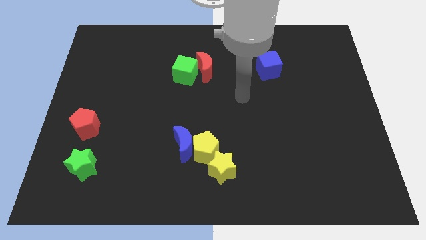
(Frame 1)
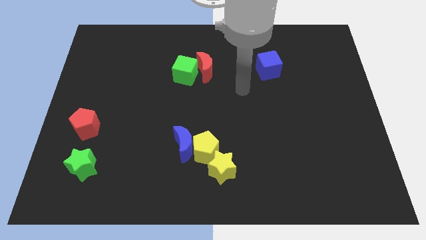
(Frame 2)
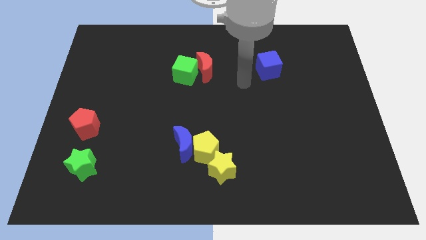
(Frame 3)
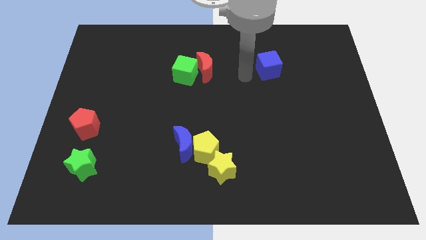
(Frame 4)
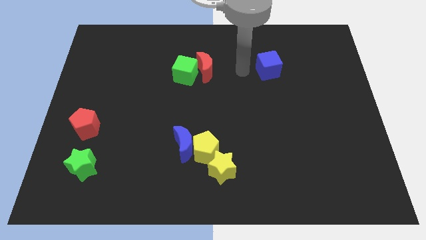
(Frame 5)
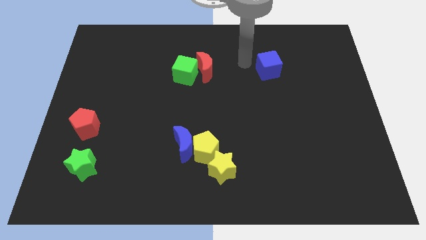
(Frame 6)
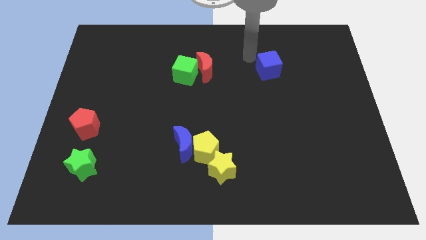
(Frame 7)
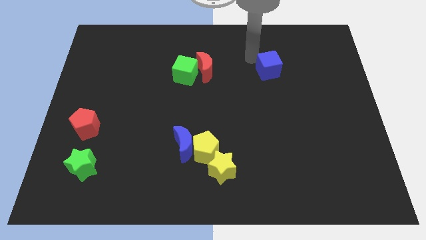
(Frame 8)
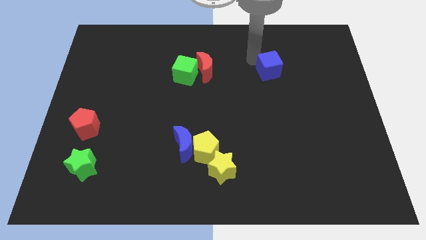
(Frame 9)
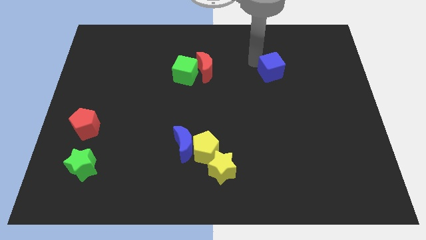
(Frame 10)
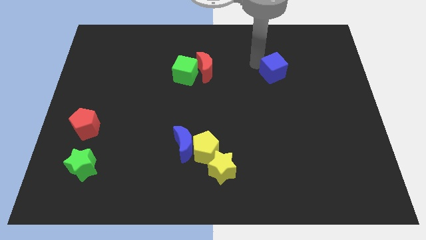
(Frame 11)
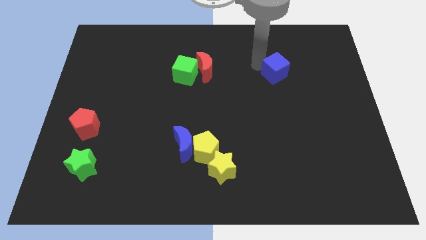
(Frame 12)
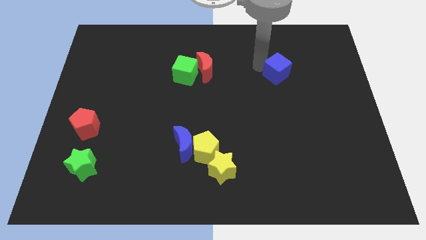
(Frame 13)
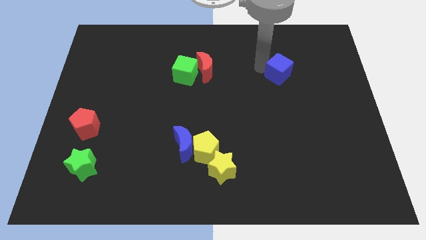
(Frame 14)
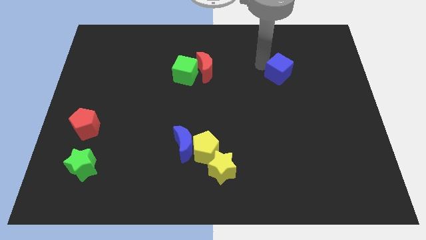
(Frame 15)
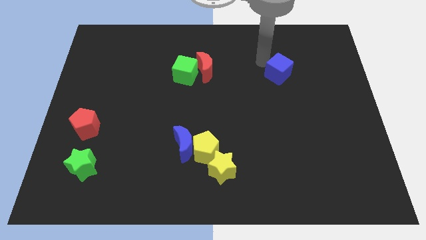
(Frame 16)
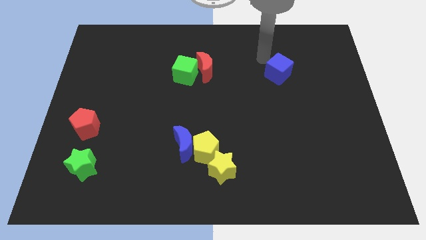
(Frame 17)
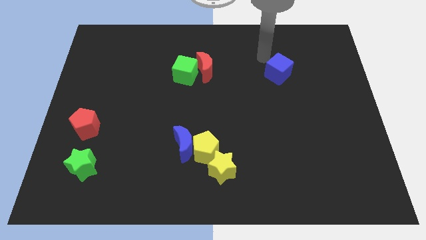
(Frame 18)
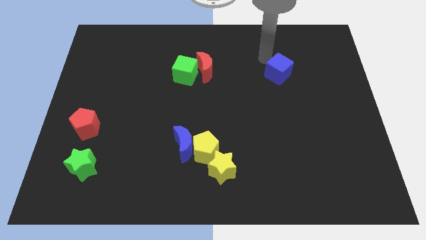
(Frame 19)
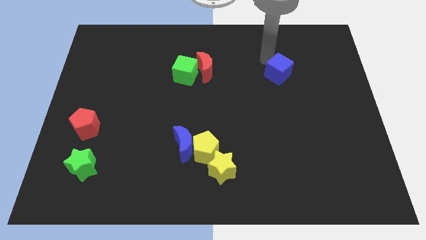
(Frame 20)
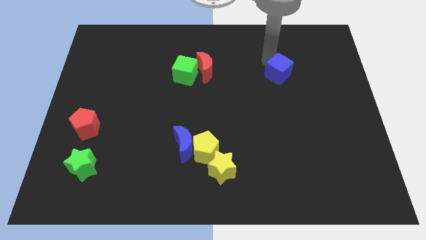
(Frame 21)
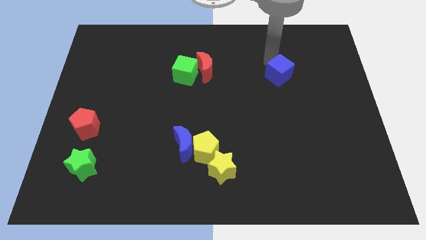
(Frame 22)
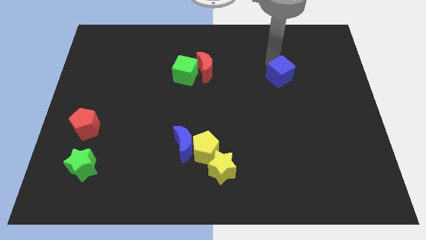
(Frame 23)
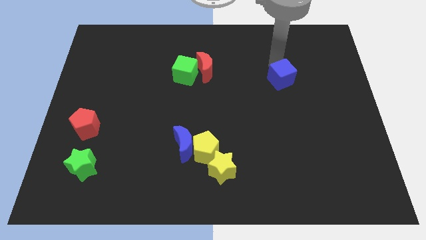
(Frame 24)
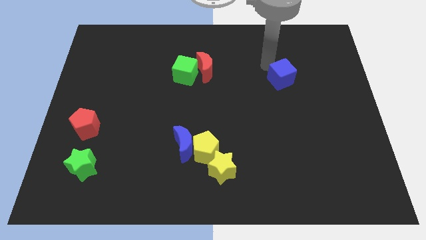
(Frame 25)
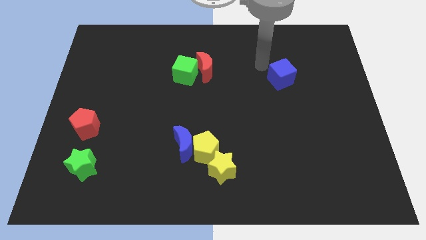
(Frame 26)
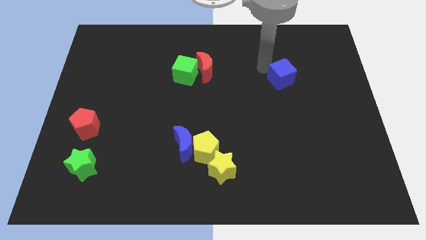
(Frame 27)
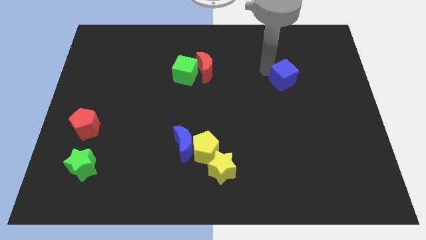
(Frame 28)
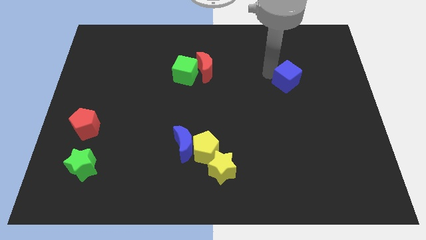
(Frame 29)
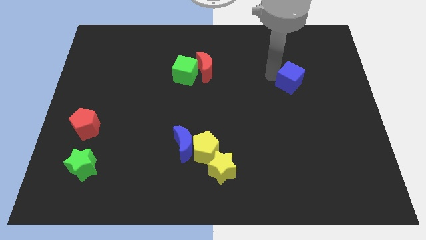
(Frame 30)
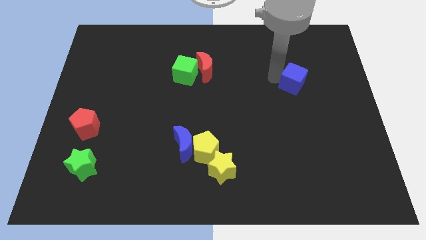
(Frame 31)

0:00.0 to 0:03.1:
move the blue cube a bit downwards and then right

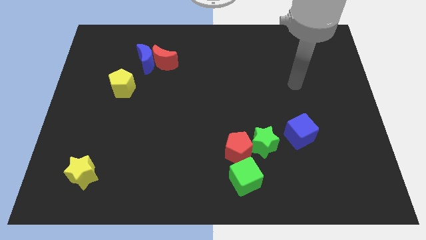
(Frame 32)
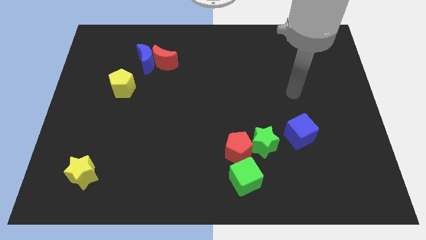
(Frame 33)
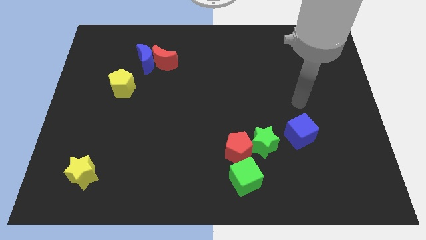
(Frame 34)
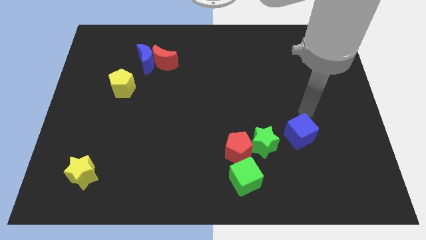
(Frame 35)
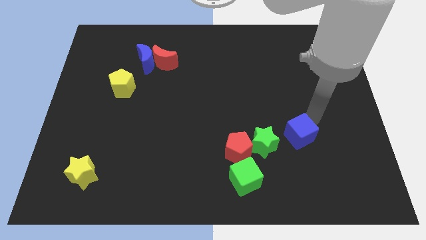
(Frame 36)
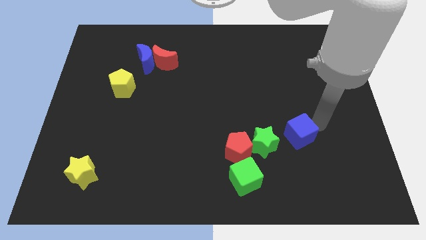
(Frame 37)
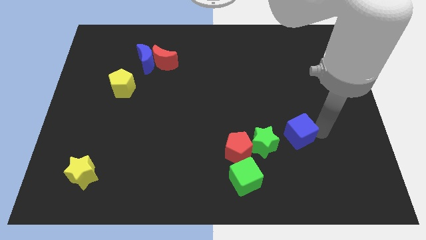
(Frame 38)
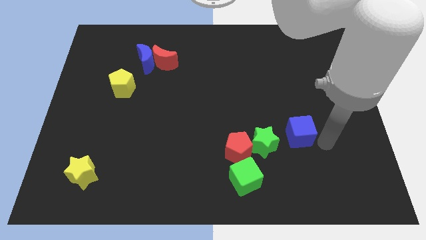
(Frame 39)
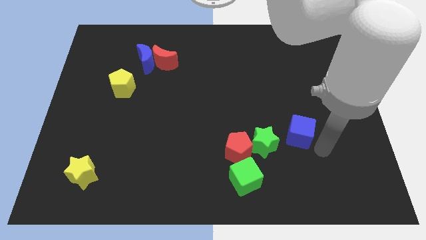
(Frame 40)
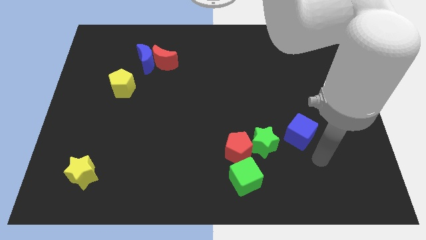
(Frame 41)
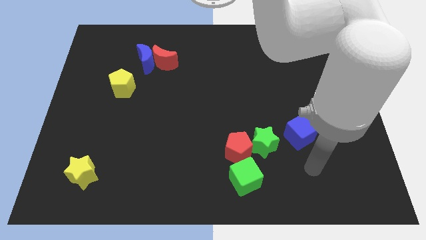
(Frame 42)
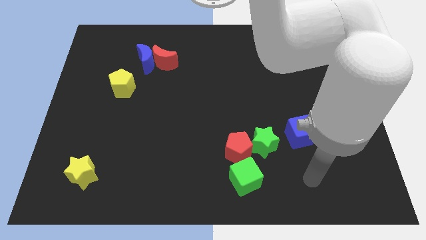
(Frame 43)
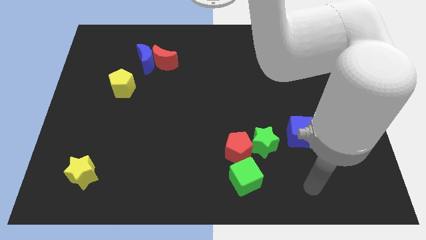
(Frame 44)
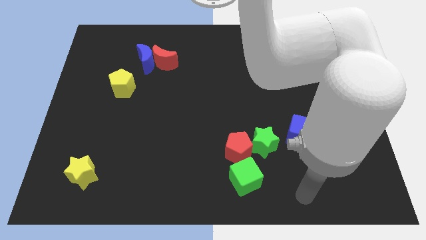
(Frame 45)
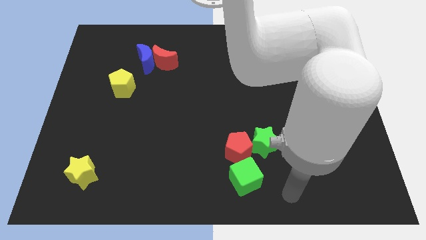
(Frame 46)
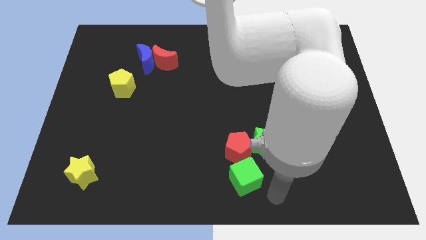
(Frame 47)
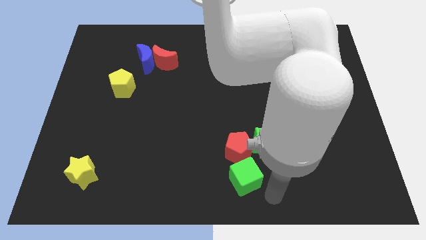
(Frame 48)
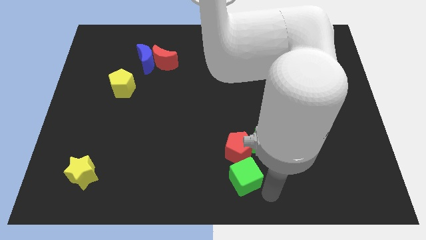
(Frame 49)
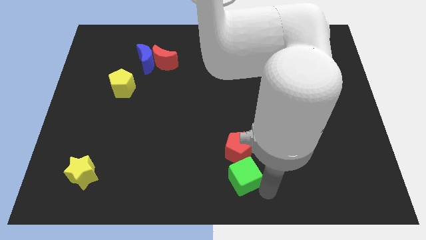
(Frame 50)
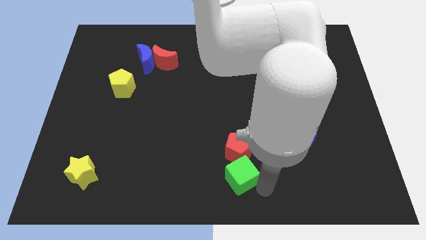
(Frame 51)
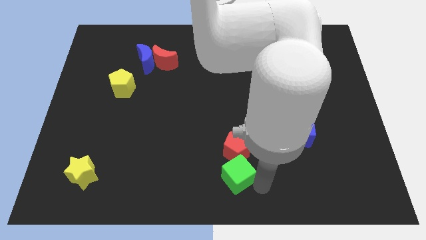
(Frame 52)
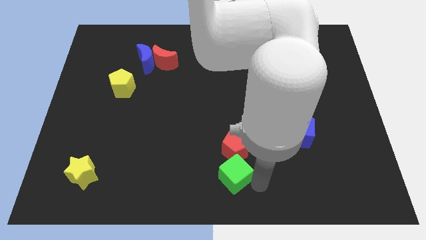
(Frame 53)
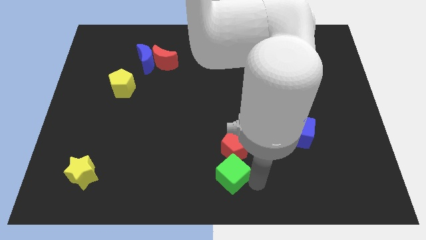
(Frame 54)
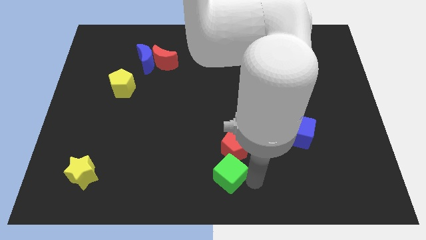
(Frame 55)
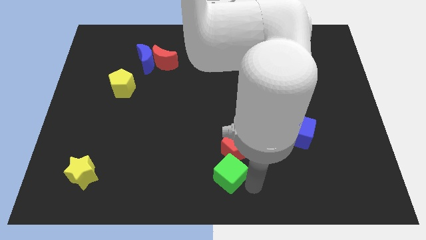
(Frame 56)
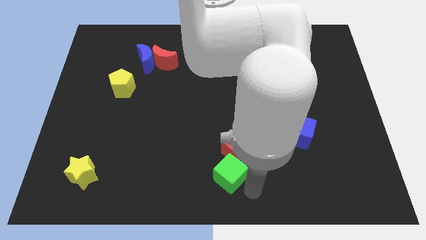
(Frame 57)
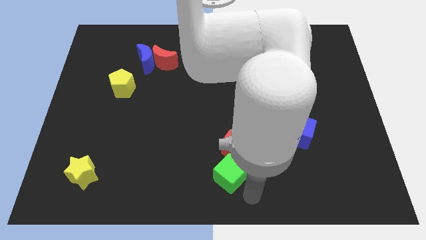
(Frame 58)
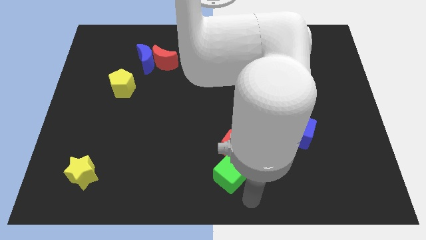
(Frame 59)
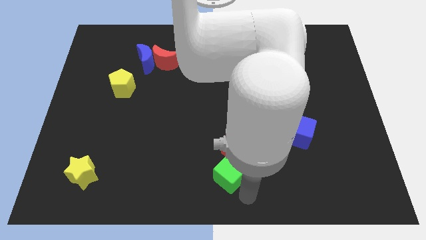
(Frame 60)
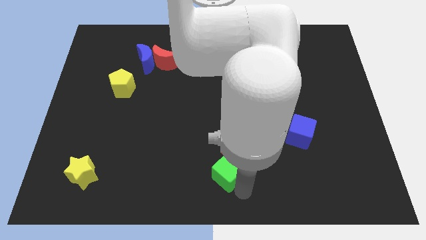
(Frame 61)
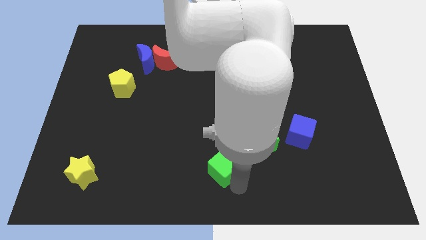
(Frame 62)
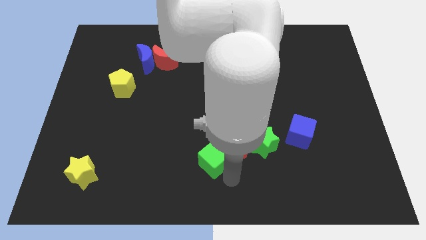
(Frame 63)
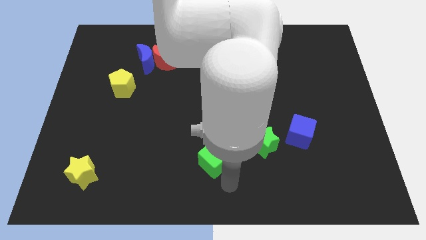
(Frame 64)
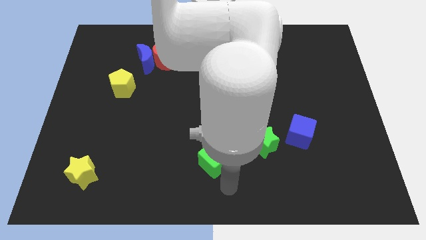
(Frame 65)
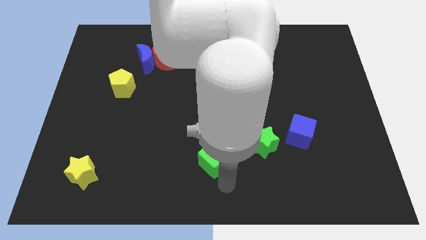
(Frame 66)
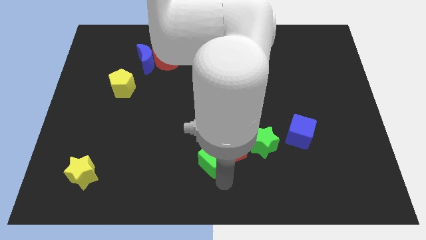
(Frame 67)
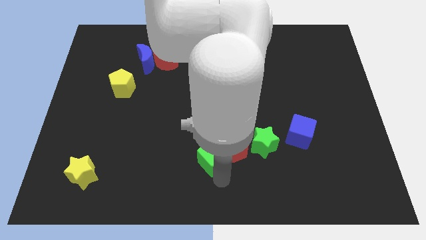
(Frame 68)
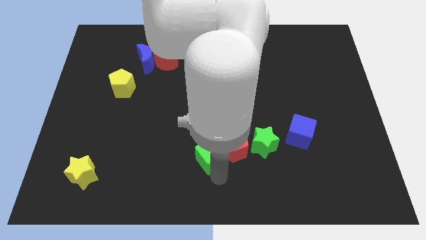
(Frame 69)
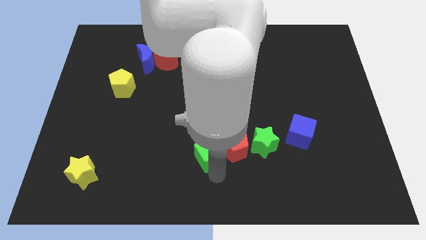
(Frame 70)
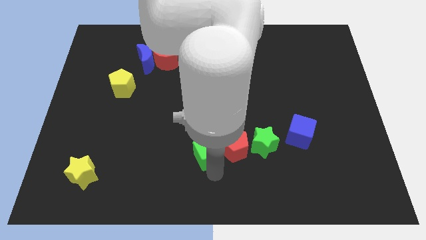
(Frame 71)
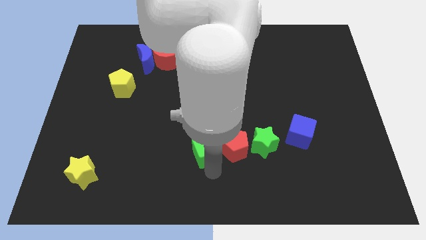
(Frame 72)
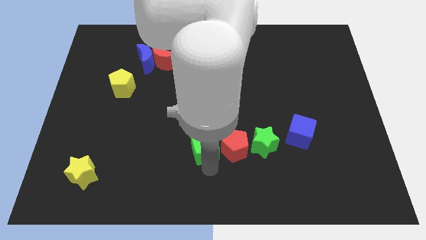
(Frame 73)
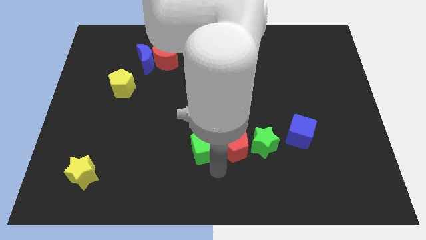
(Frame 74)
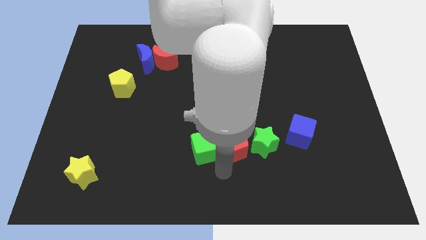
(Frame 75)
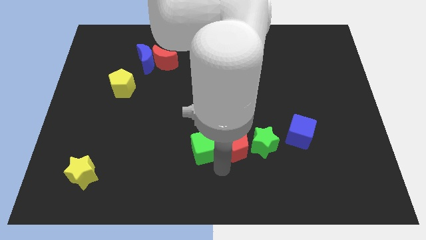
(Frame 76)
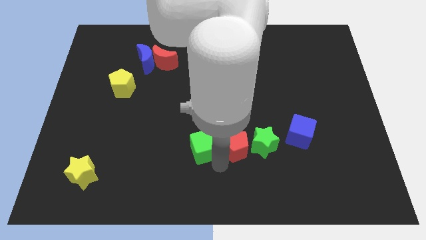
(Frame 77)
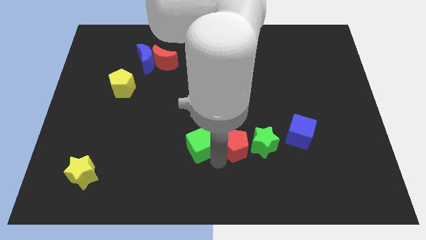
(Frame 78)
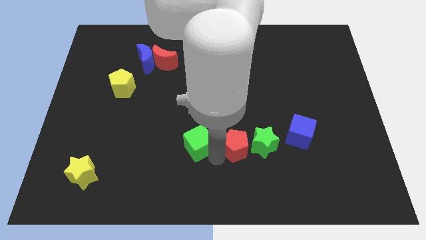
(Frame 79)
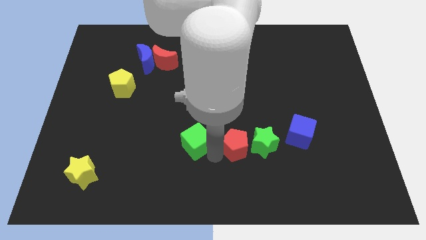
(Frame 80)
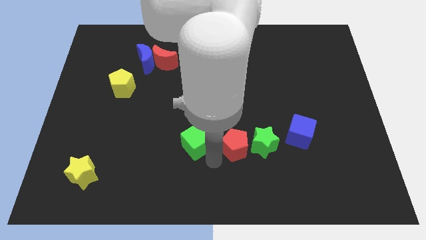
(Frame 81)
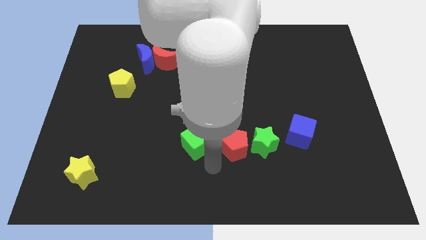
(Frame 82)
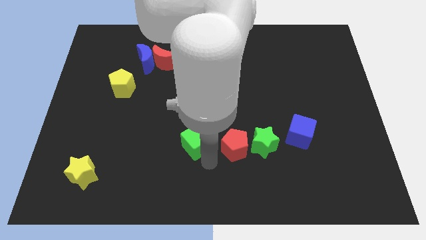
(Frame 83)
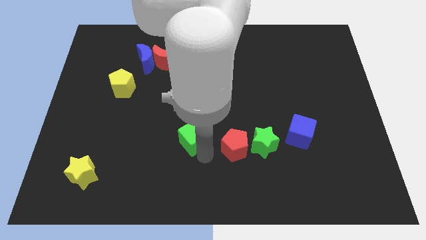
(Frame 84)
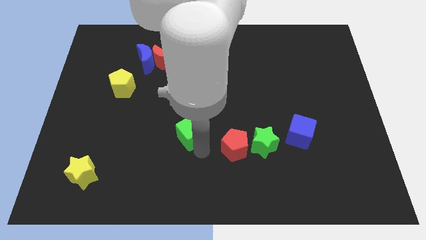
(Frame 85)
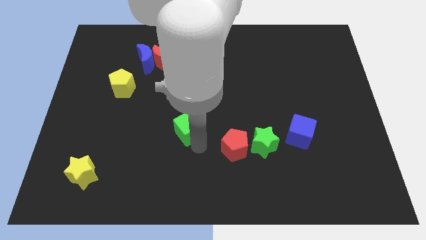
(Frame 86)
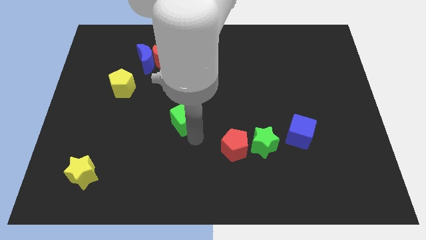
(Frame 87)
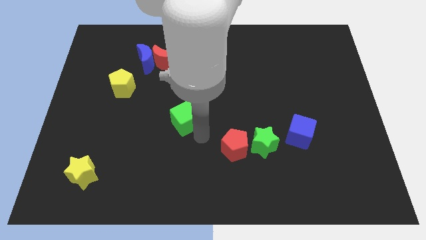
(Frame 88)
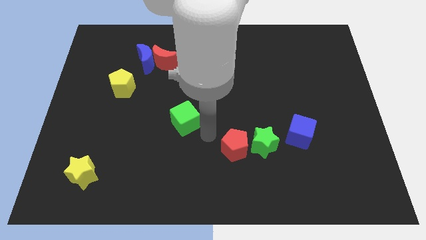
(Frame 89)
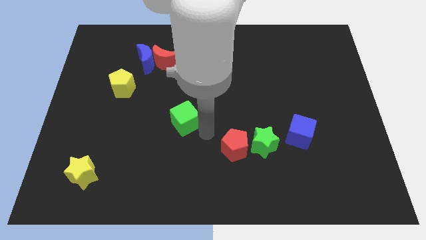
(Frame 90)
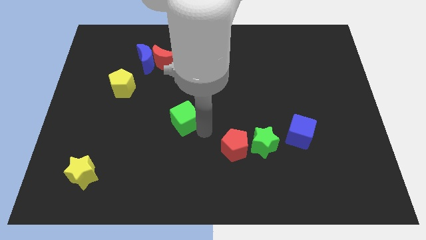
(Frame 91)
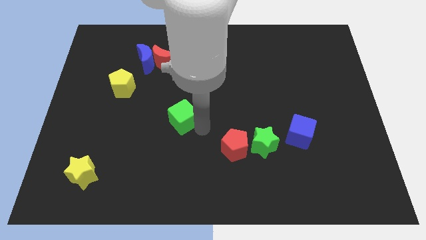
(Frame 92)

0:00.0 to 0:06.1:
slide the green cube up and then to the left
